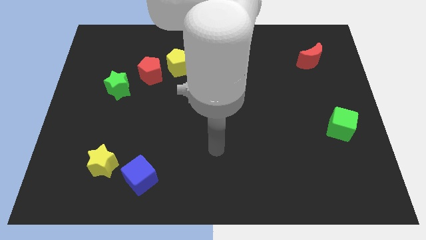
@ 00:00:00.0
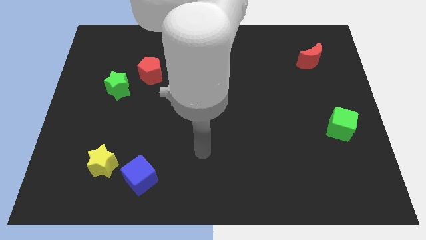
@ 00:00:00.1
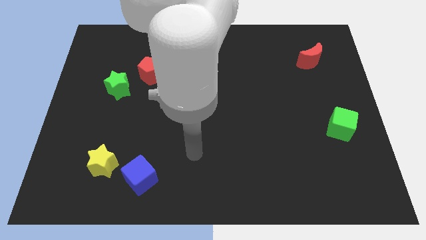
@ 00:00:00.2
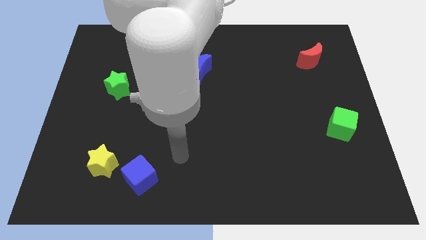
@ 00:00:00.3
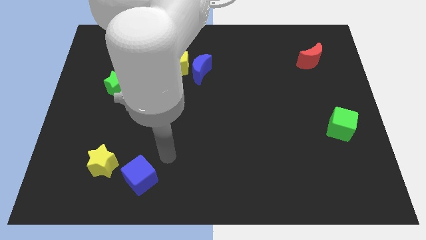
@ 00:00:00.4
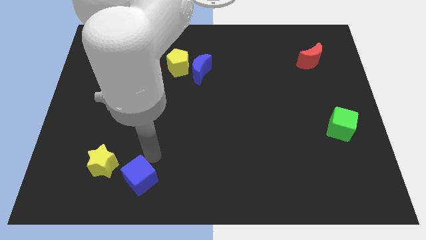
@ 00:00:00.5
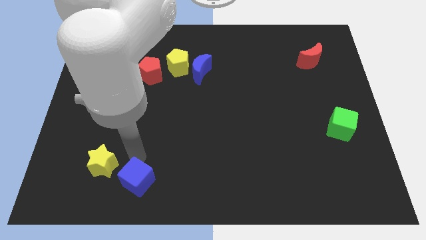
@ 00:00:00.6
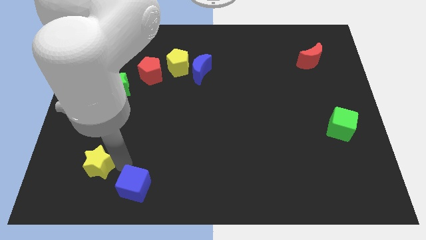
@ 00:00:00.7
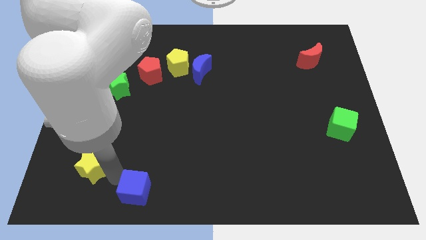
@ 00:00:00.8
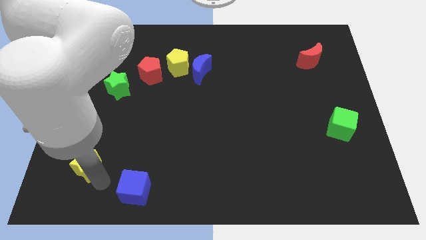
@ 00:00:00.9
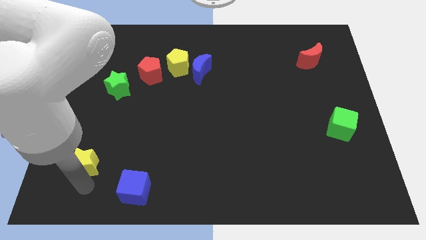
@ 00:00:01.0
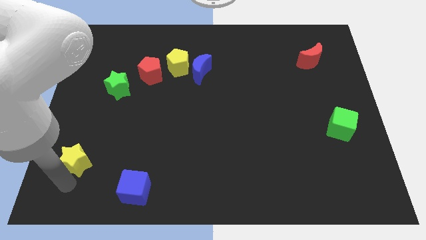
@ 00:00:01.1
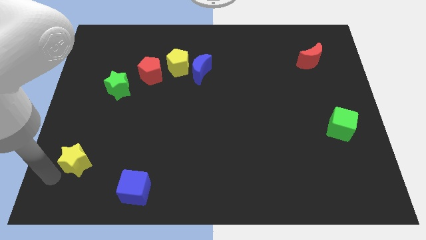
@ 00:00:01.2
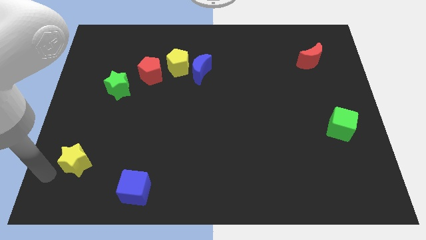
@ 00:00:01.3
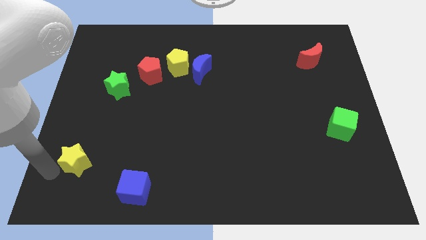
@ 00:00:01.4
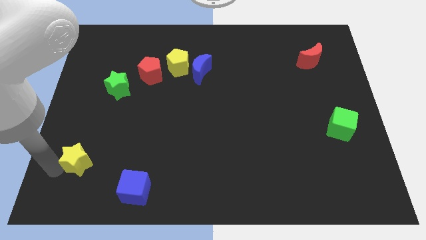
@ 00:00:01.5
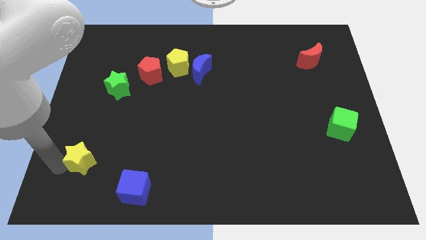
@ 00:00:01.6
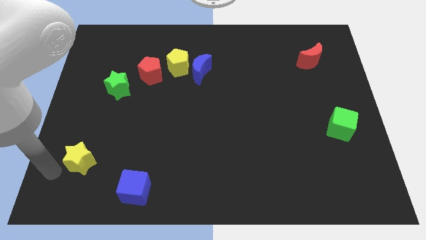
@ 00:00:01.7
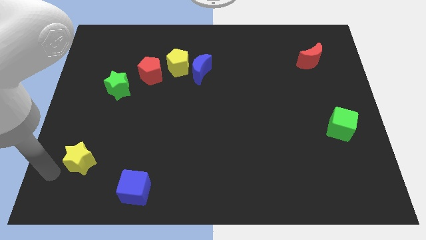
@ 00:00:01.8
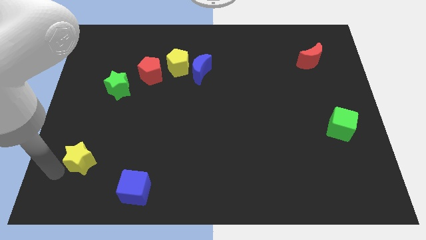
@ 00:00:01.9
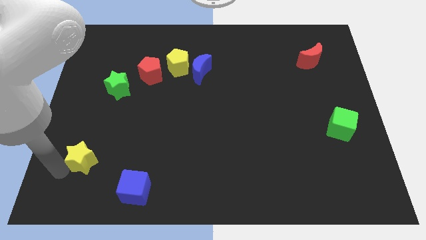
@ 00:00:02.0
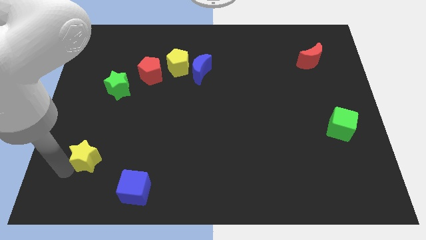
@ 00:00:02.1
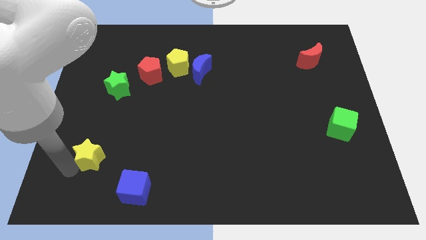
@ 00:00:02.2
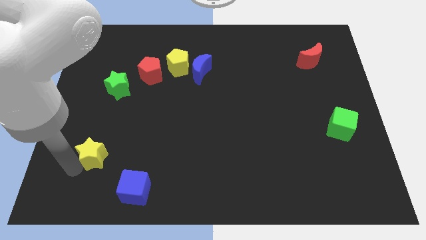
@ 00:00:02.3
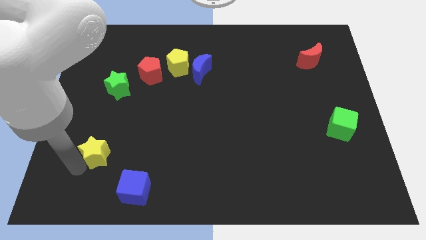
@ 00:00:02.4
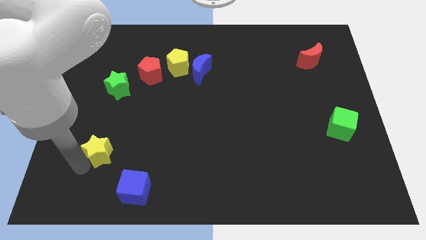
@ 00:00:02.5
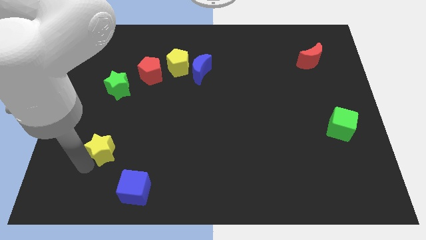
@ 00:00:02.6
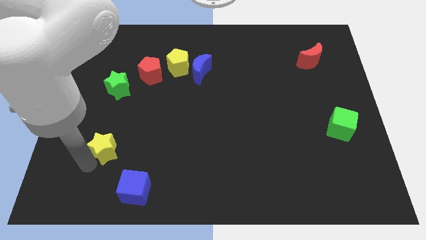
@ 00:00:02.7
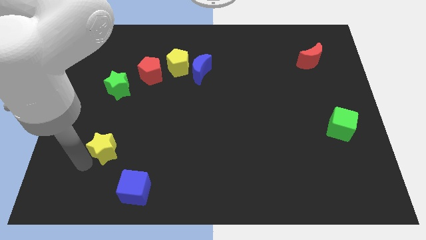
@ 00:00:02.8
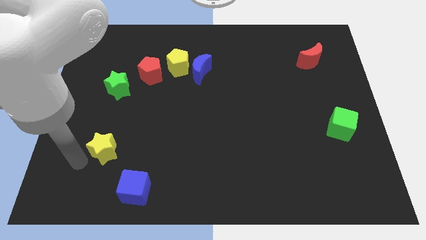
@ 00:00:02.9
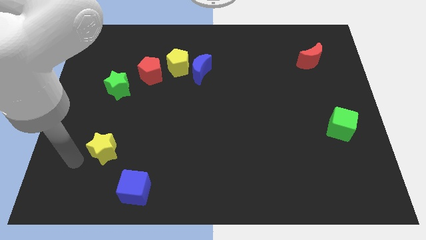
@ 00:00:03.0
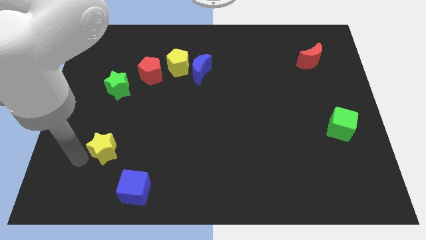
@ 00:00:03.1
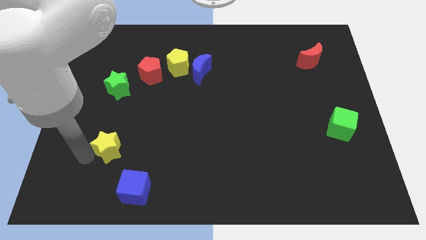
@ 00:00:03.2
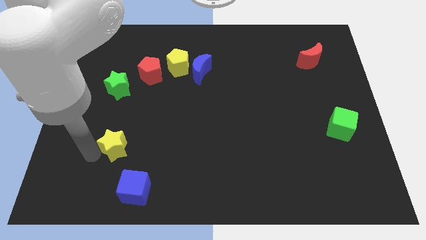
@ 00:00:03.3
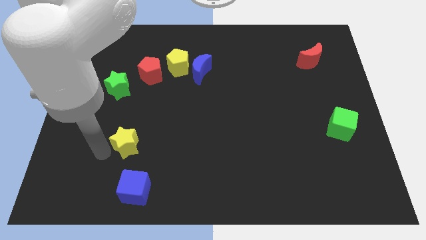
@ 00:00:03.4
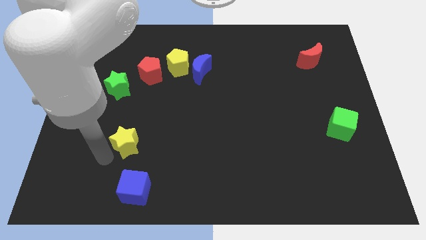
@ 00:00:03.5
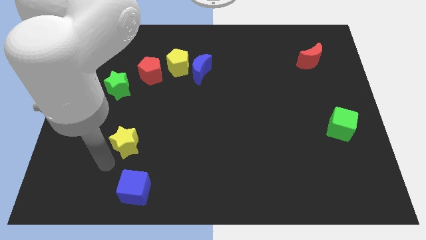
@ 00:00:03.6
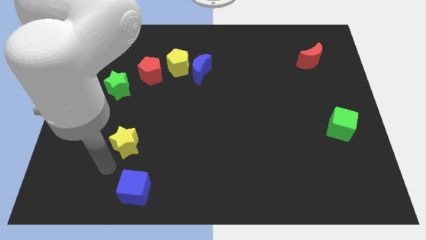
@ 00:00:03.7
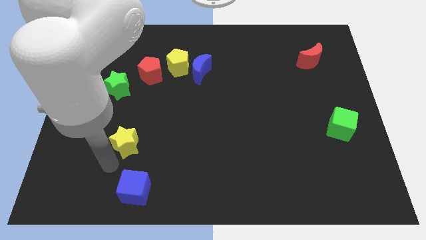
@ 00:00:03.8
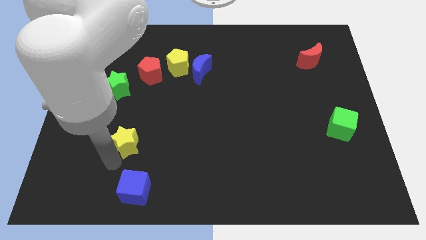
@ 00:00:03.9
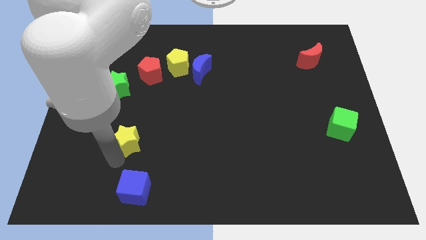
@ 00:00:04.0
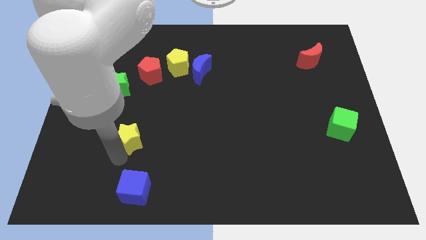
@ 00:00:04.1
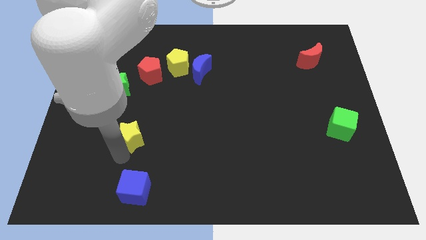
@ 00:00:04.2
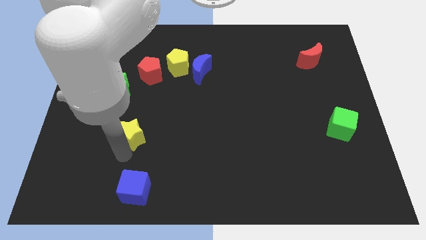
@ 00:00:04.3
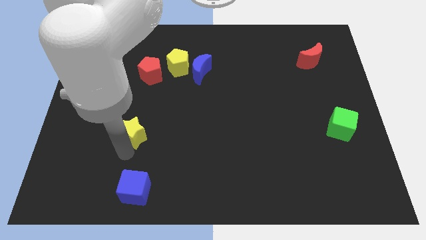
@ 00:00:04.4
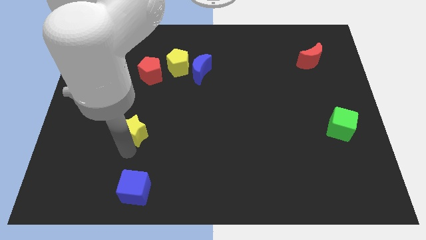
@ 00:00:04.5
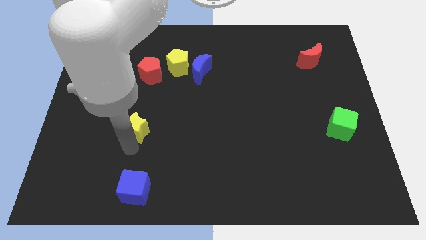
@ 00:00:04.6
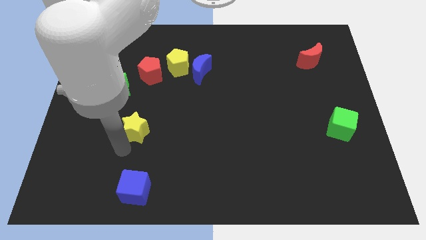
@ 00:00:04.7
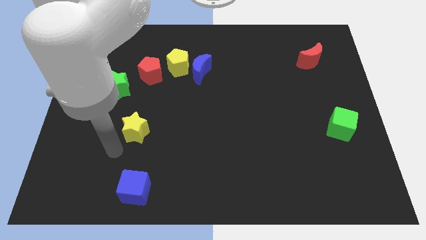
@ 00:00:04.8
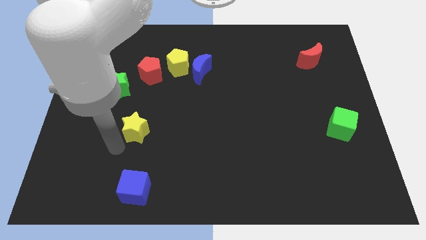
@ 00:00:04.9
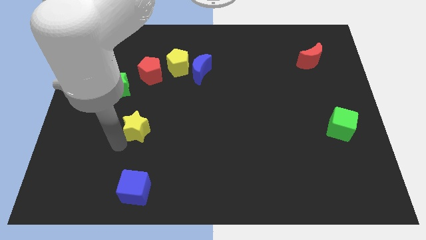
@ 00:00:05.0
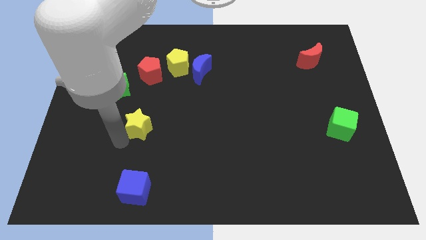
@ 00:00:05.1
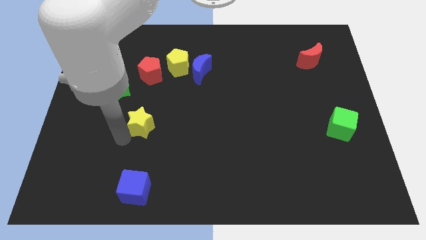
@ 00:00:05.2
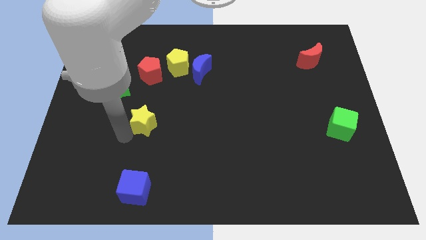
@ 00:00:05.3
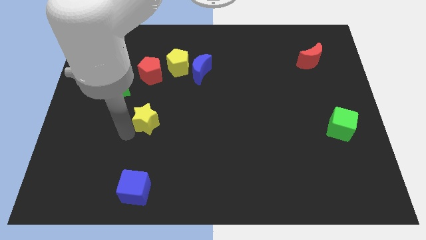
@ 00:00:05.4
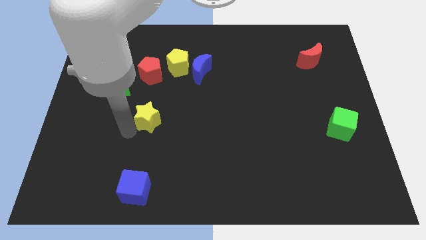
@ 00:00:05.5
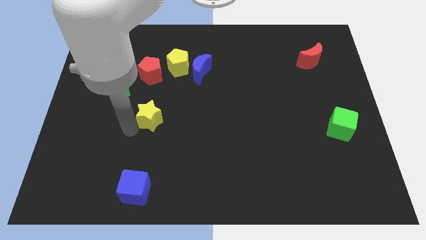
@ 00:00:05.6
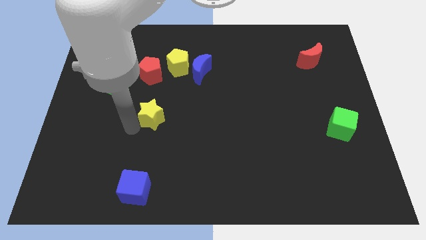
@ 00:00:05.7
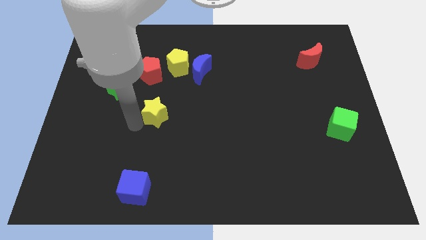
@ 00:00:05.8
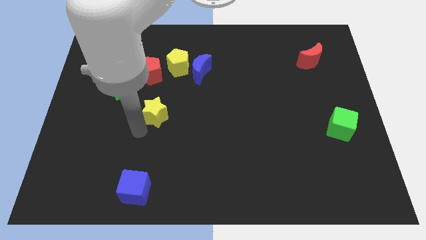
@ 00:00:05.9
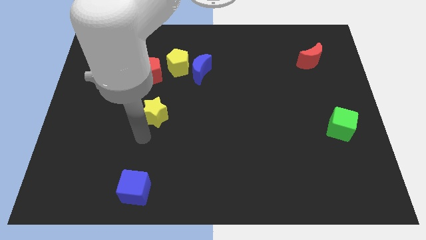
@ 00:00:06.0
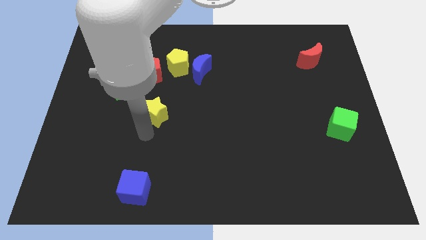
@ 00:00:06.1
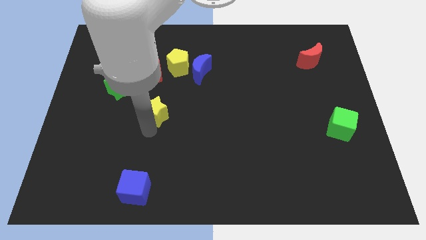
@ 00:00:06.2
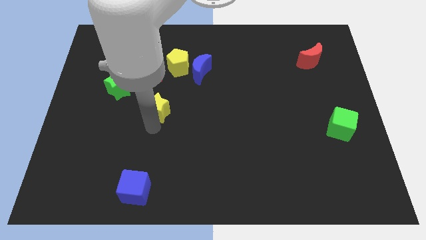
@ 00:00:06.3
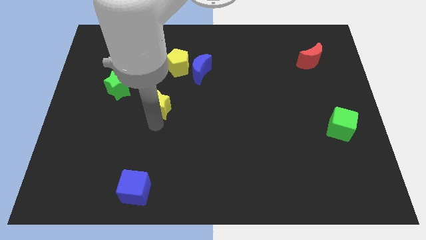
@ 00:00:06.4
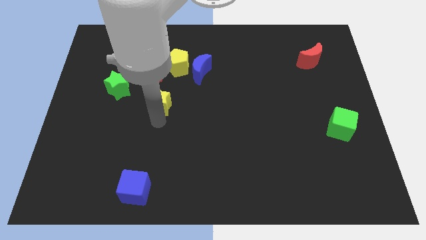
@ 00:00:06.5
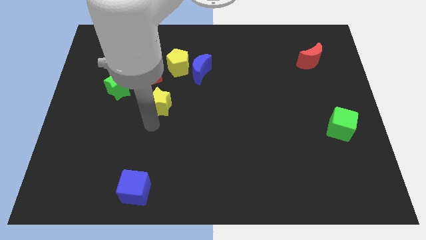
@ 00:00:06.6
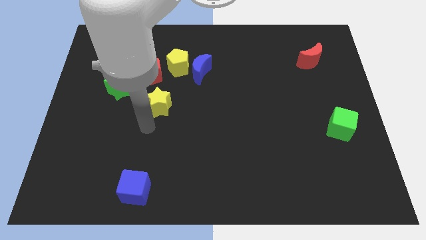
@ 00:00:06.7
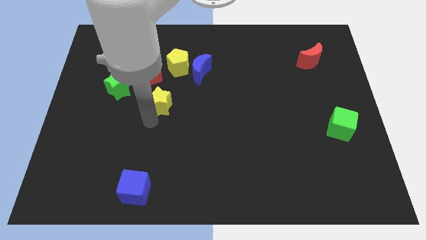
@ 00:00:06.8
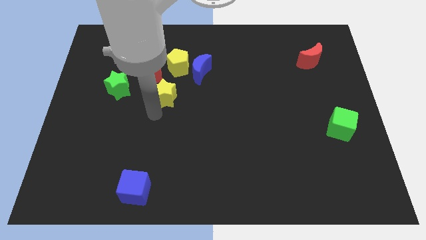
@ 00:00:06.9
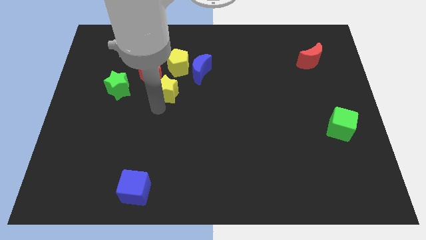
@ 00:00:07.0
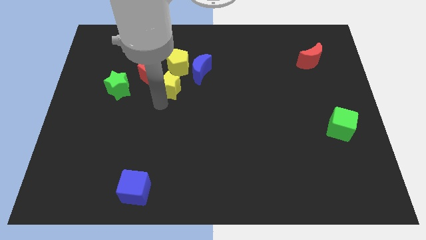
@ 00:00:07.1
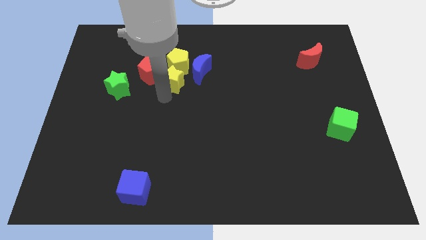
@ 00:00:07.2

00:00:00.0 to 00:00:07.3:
push the yellow star next to the yellow pentagon
